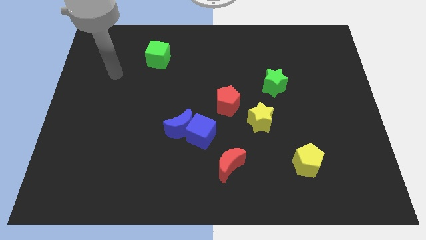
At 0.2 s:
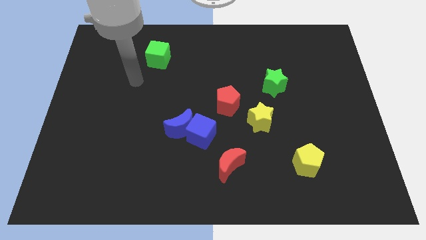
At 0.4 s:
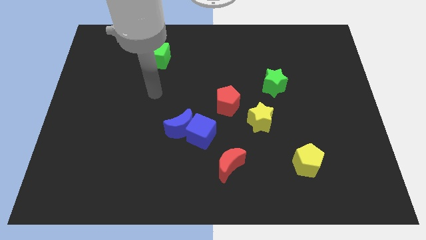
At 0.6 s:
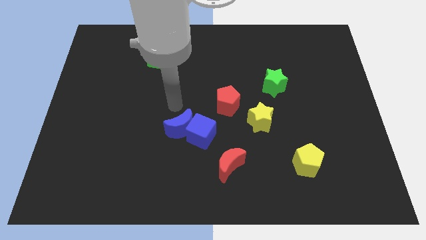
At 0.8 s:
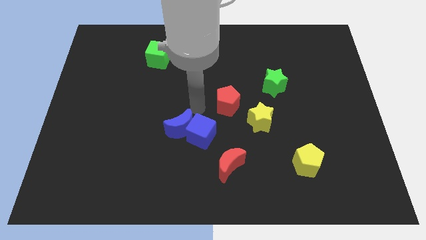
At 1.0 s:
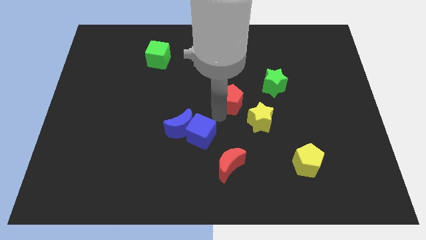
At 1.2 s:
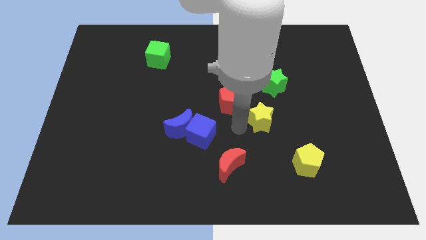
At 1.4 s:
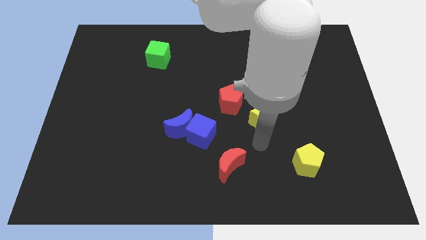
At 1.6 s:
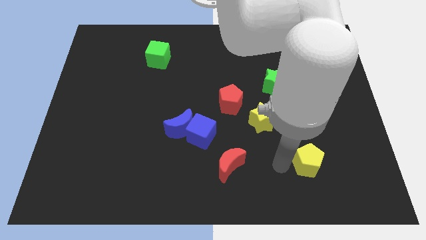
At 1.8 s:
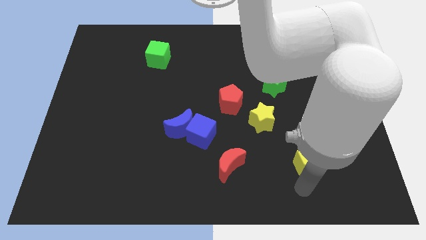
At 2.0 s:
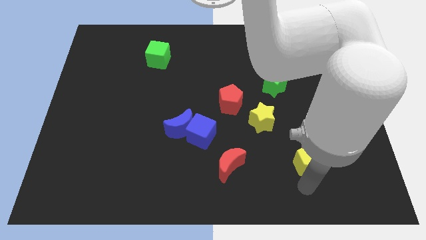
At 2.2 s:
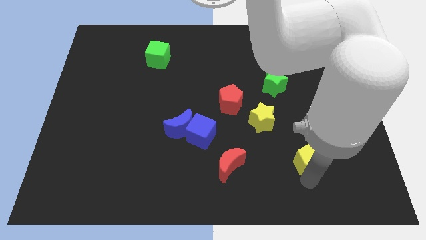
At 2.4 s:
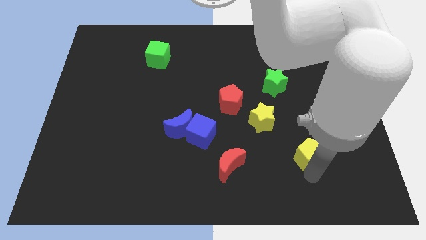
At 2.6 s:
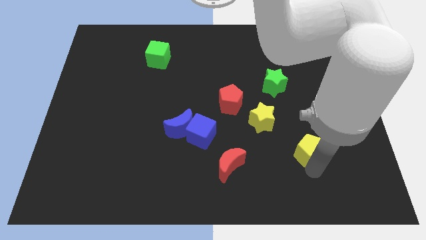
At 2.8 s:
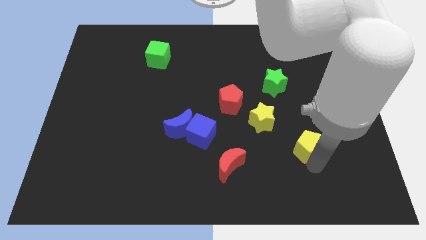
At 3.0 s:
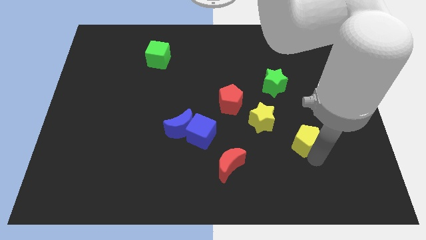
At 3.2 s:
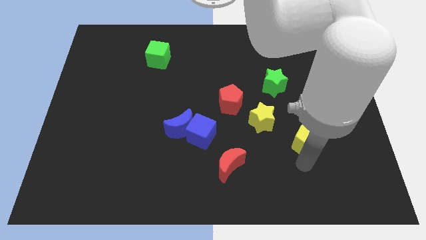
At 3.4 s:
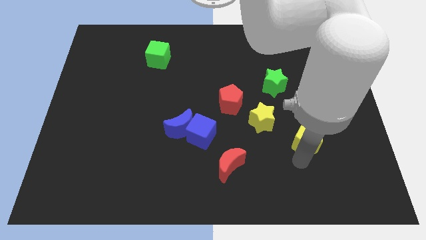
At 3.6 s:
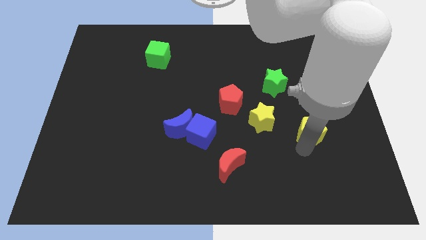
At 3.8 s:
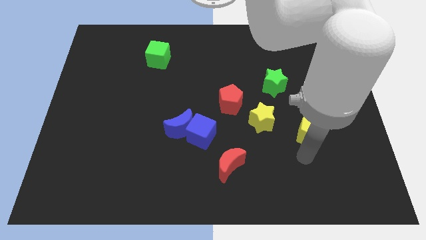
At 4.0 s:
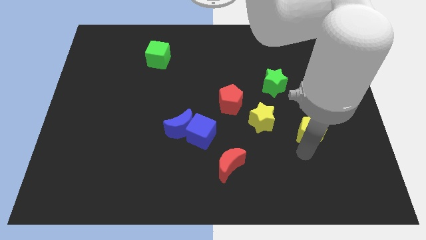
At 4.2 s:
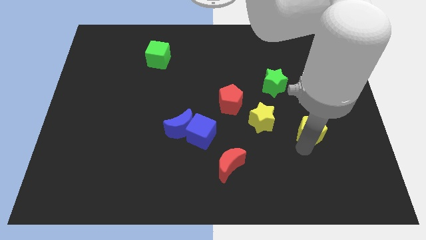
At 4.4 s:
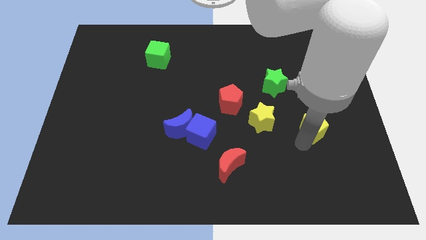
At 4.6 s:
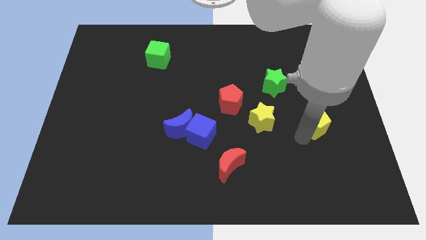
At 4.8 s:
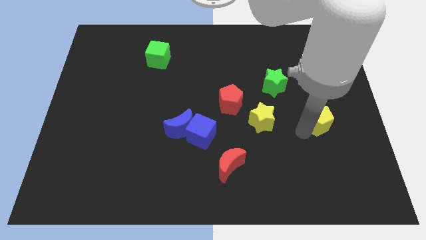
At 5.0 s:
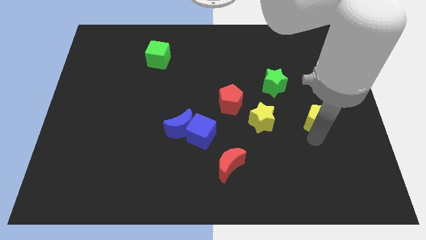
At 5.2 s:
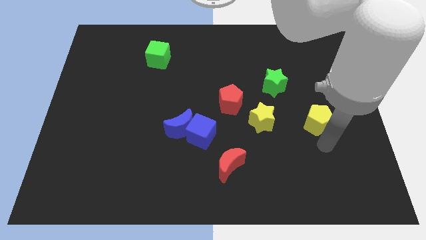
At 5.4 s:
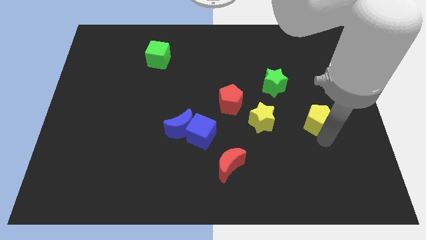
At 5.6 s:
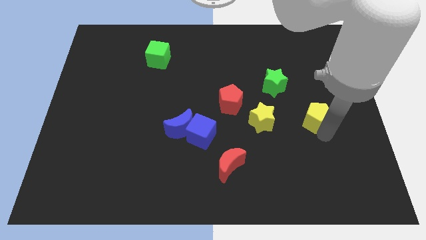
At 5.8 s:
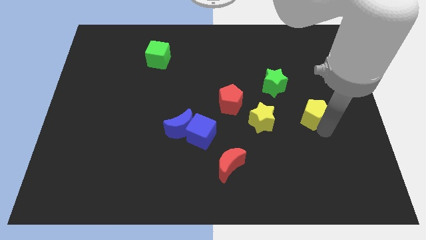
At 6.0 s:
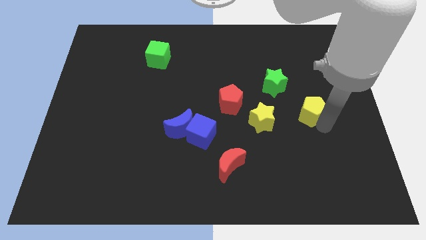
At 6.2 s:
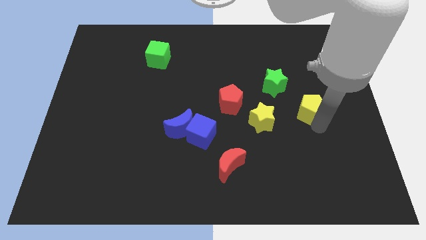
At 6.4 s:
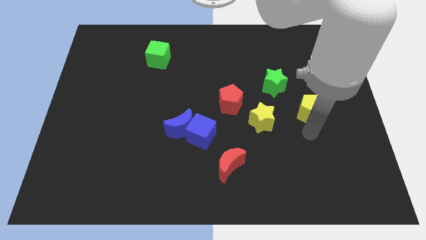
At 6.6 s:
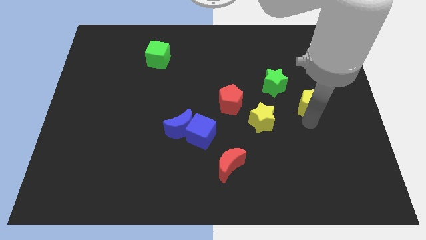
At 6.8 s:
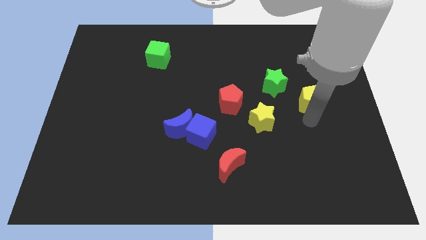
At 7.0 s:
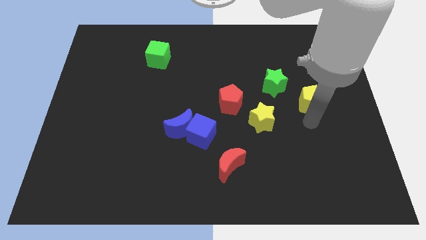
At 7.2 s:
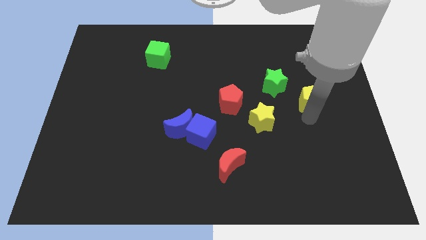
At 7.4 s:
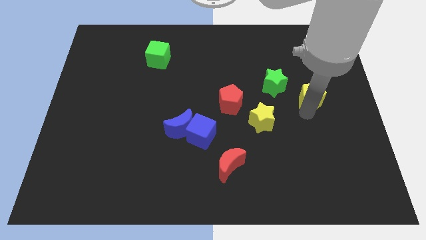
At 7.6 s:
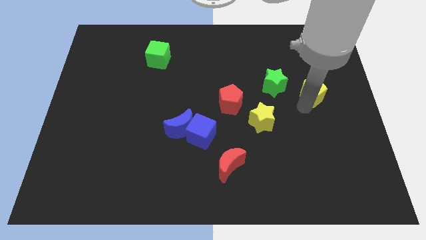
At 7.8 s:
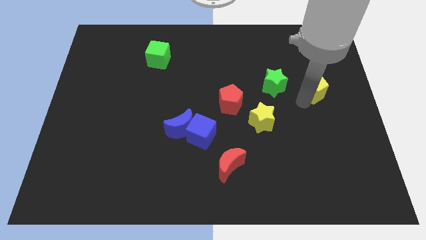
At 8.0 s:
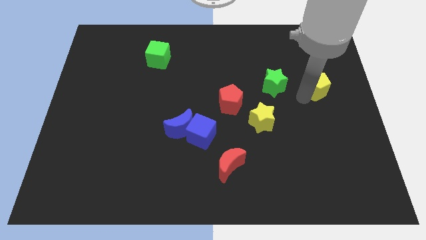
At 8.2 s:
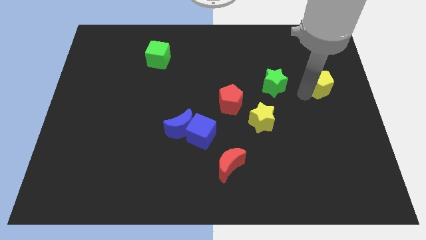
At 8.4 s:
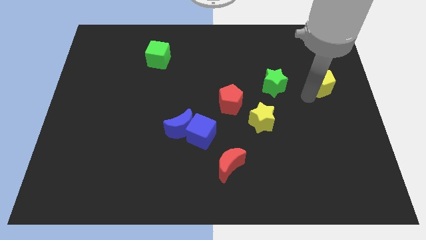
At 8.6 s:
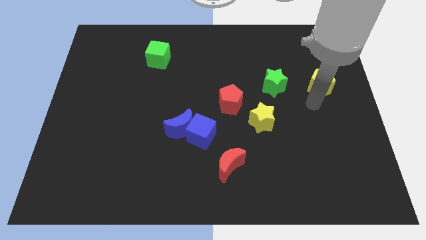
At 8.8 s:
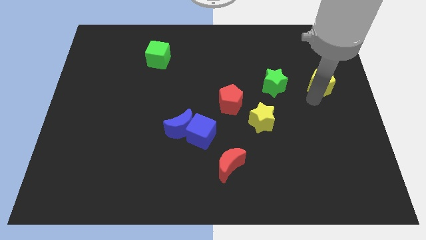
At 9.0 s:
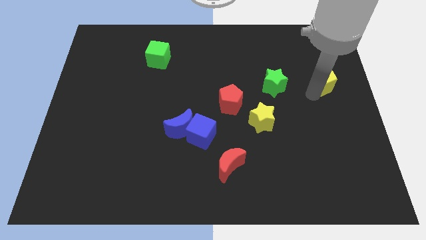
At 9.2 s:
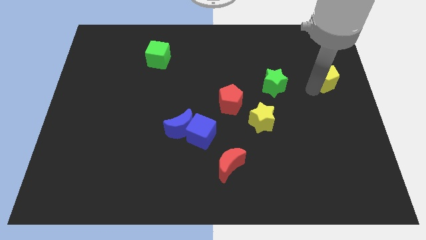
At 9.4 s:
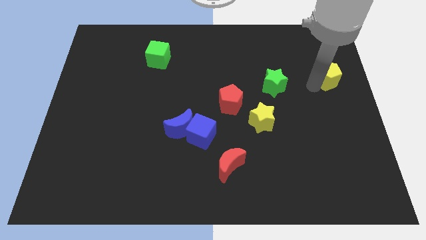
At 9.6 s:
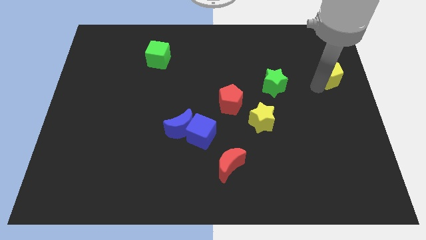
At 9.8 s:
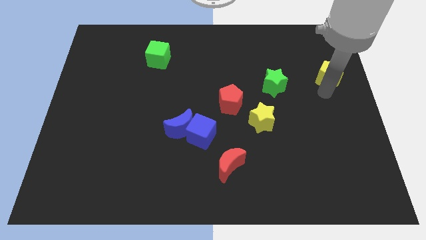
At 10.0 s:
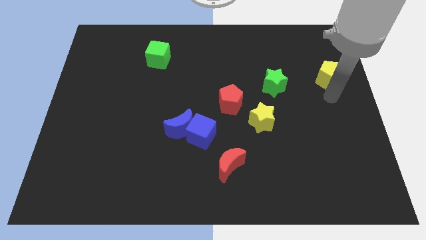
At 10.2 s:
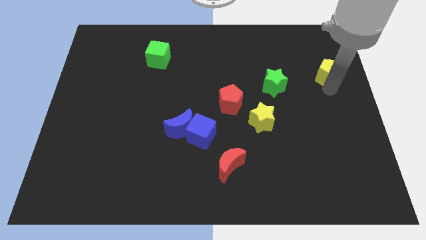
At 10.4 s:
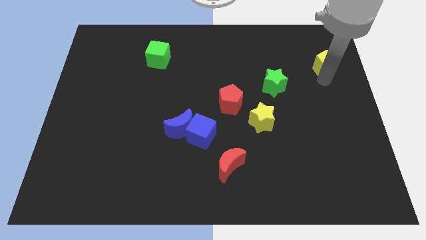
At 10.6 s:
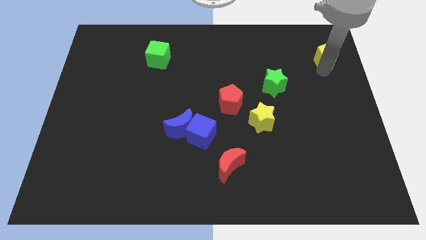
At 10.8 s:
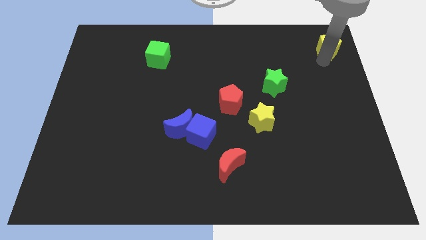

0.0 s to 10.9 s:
move the yellow pentagon to the top right corner

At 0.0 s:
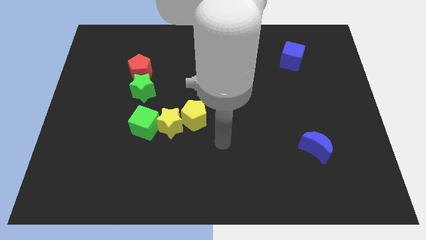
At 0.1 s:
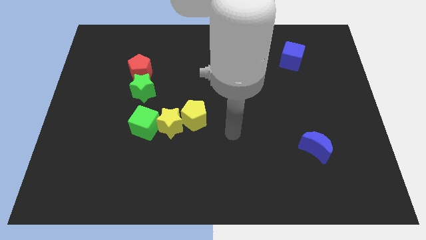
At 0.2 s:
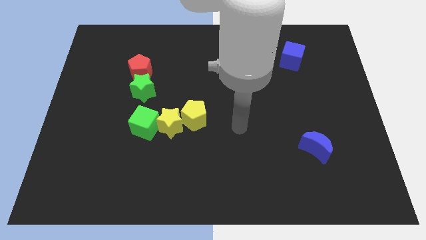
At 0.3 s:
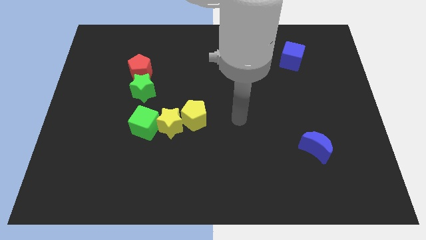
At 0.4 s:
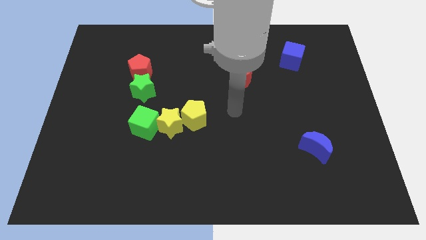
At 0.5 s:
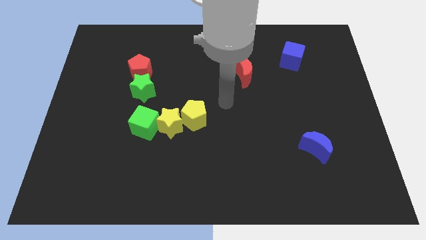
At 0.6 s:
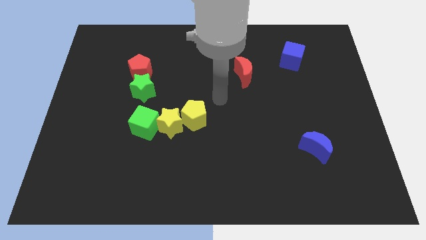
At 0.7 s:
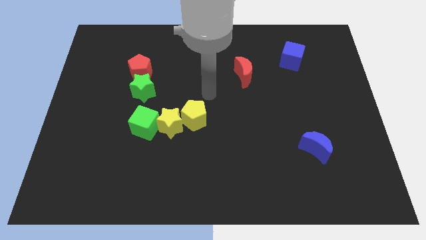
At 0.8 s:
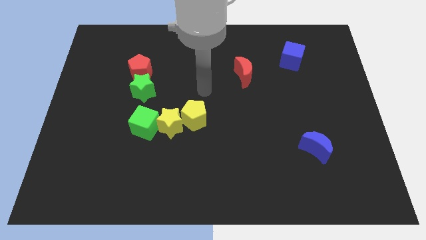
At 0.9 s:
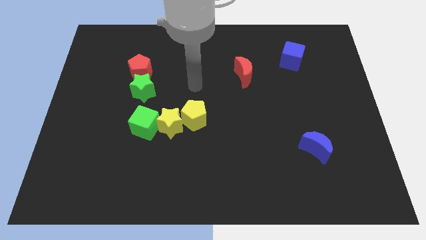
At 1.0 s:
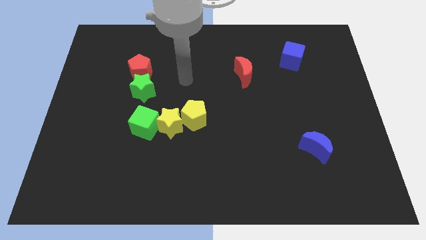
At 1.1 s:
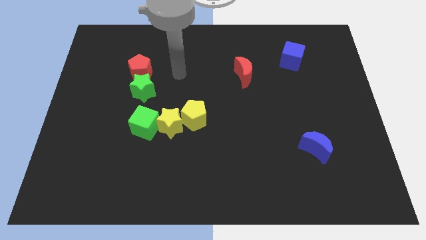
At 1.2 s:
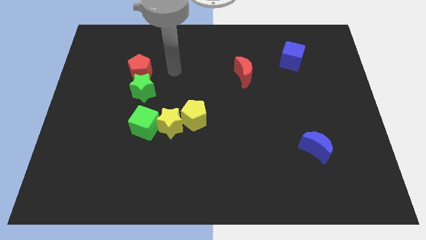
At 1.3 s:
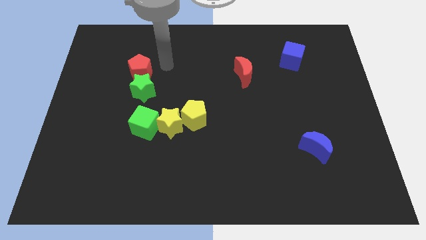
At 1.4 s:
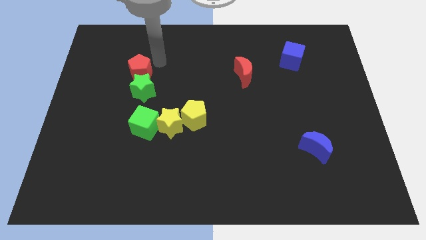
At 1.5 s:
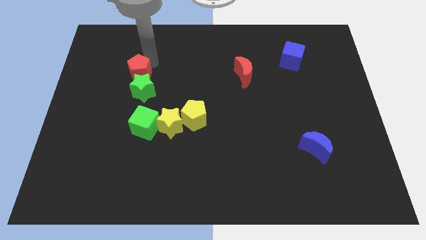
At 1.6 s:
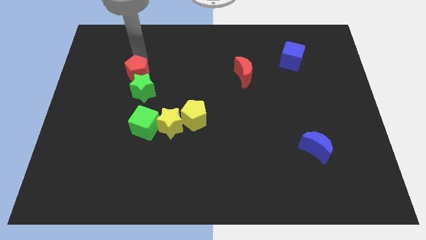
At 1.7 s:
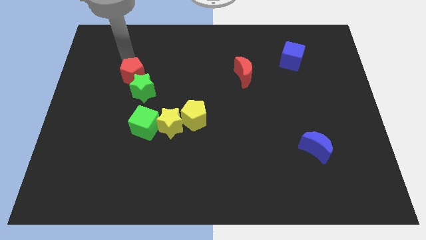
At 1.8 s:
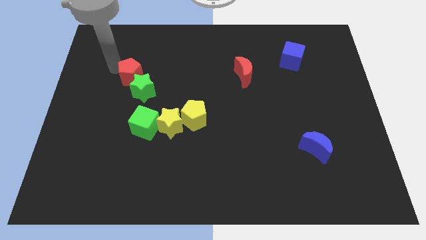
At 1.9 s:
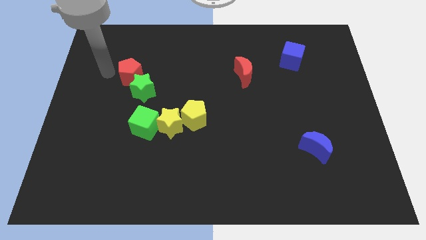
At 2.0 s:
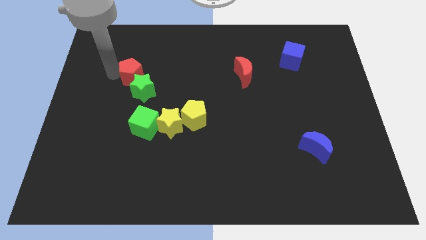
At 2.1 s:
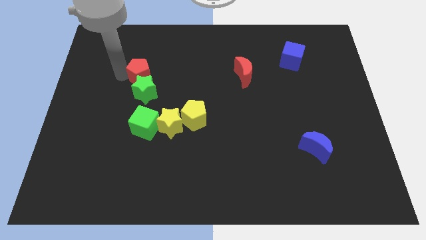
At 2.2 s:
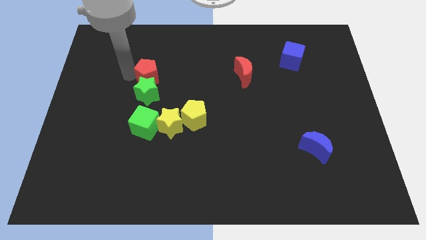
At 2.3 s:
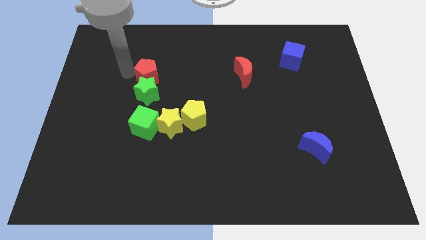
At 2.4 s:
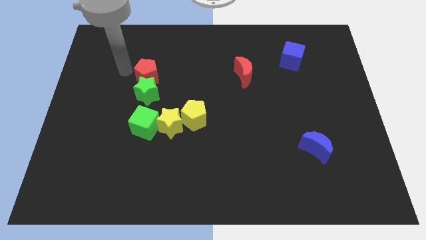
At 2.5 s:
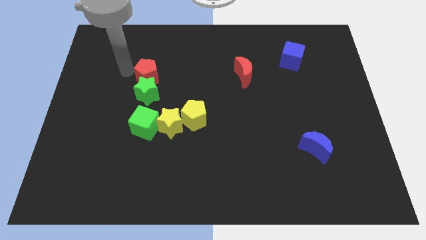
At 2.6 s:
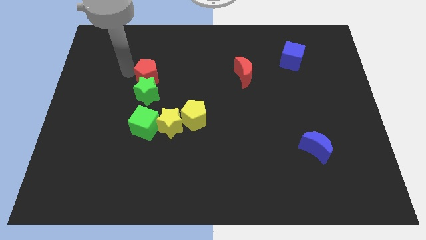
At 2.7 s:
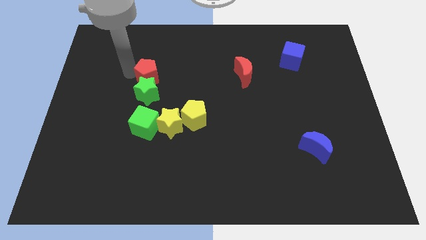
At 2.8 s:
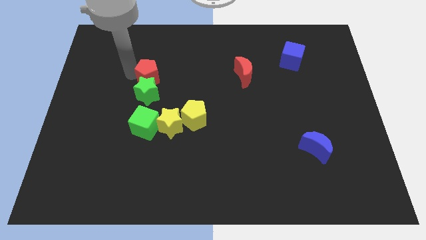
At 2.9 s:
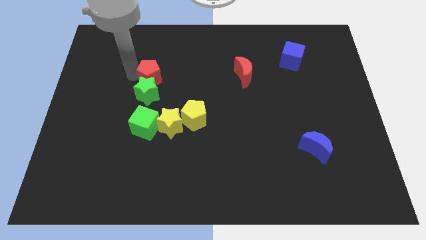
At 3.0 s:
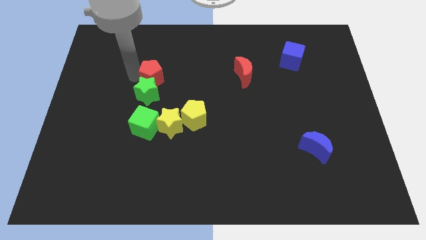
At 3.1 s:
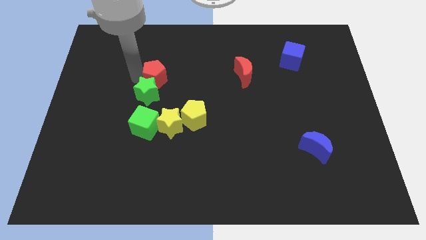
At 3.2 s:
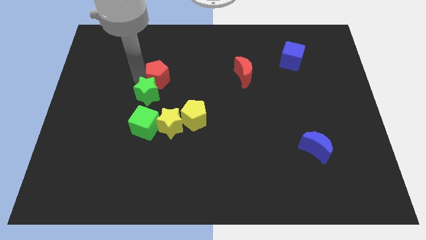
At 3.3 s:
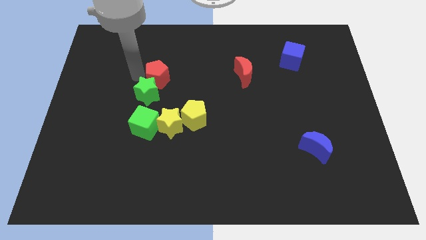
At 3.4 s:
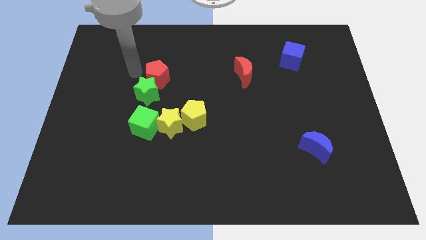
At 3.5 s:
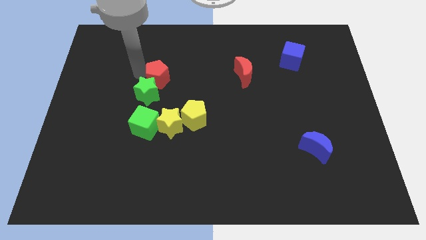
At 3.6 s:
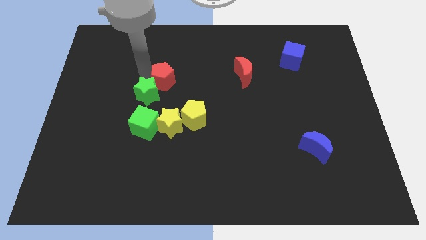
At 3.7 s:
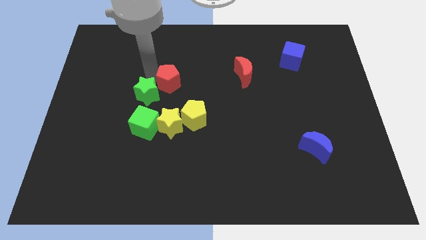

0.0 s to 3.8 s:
slide the red pentagon to the center
